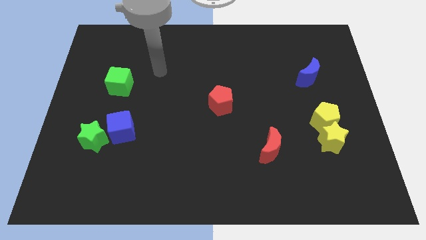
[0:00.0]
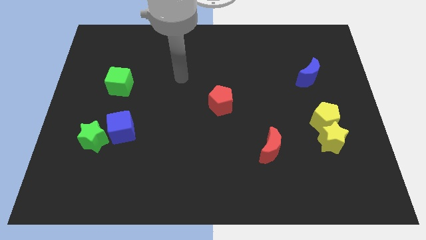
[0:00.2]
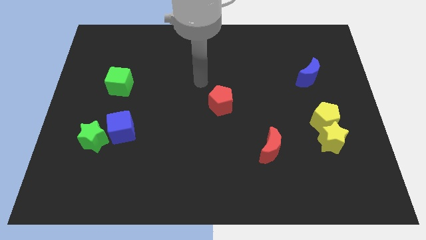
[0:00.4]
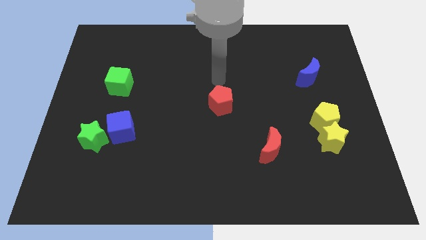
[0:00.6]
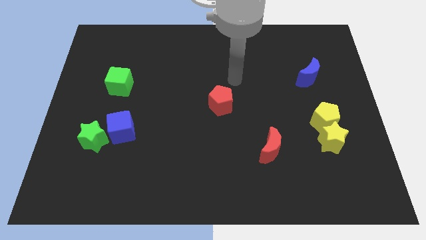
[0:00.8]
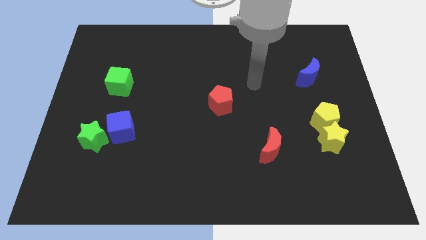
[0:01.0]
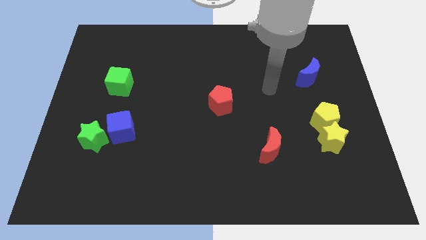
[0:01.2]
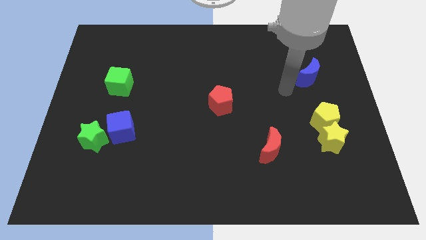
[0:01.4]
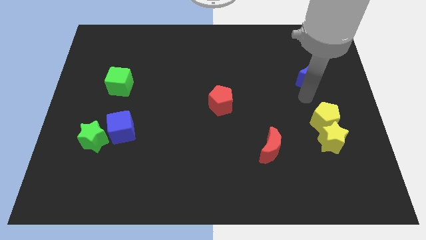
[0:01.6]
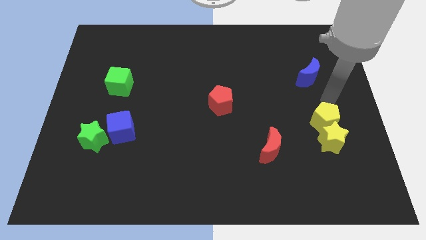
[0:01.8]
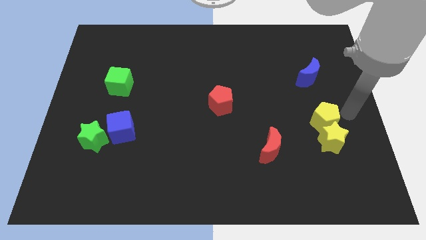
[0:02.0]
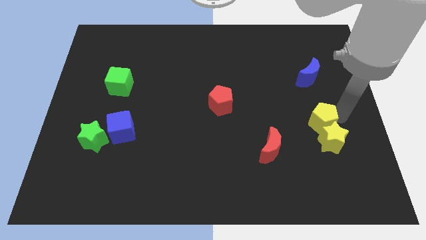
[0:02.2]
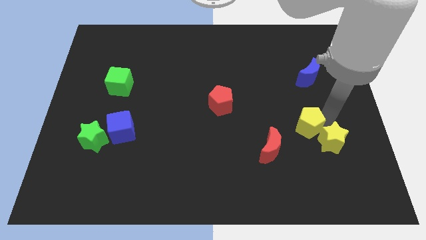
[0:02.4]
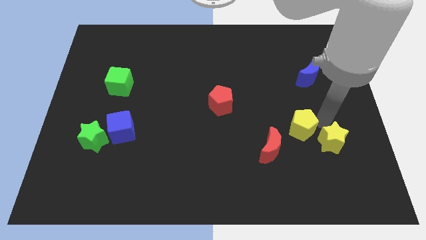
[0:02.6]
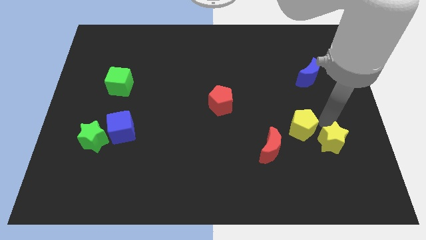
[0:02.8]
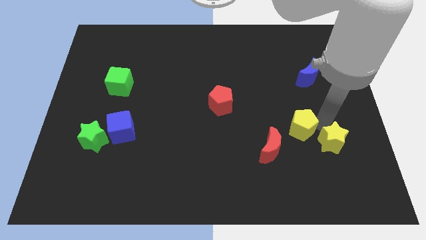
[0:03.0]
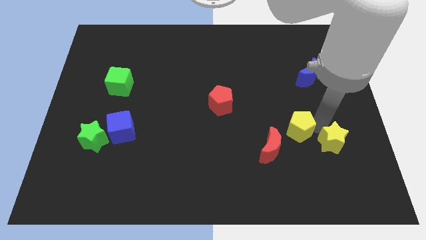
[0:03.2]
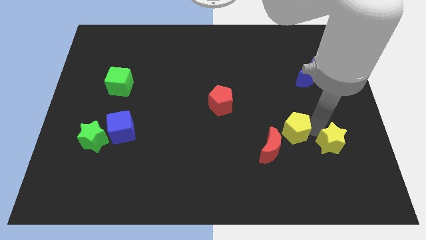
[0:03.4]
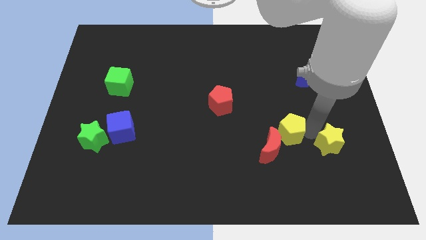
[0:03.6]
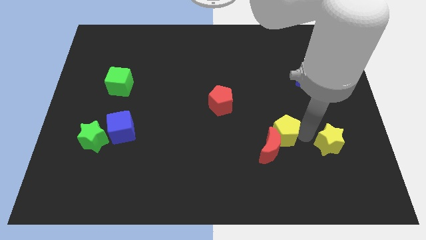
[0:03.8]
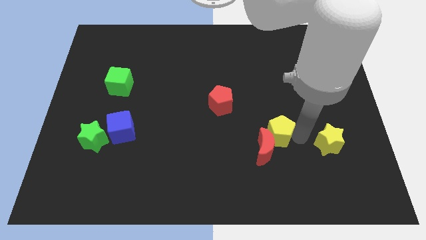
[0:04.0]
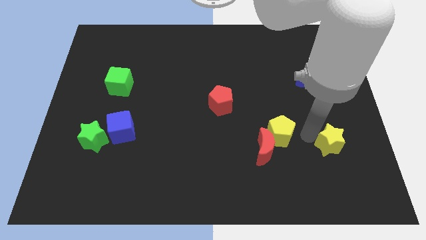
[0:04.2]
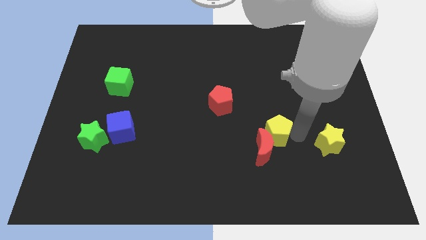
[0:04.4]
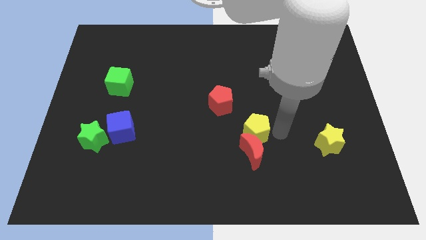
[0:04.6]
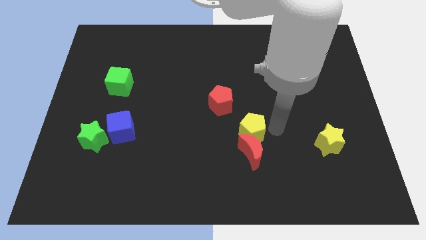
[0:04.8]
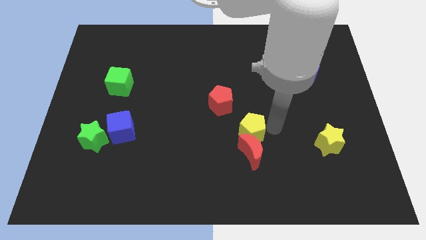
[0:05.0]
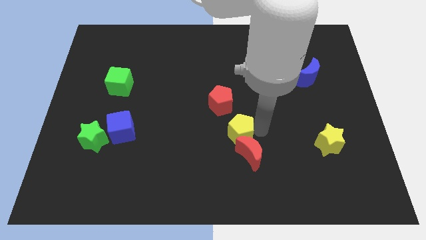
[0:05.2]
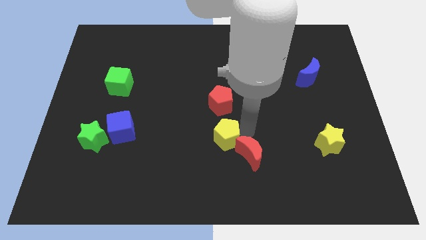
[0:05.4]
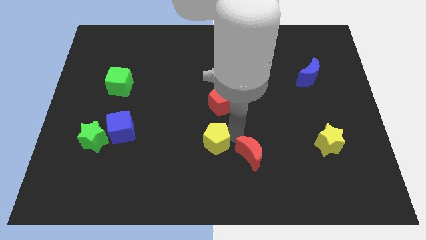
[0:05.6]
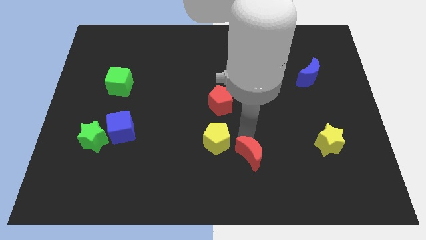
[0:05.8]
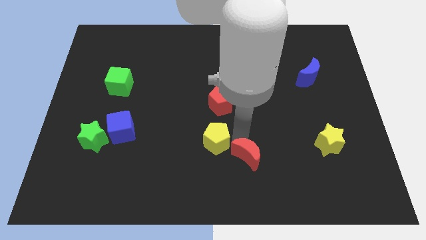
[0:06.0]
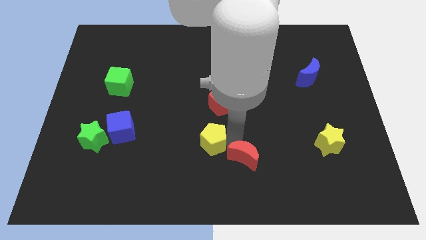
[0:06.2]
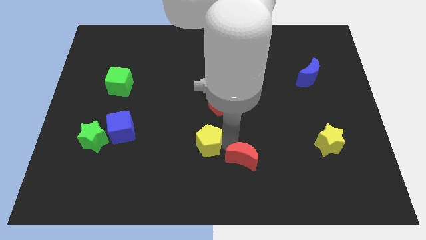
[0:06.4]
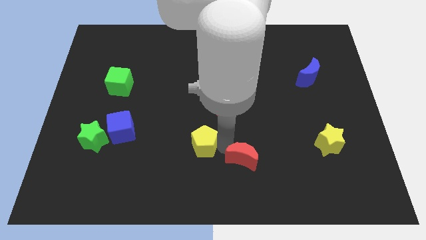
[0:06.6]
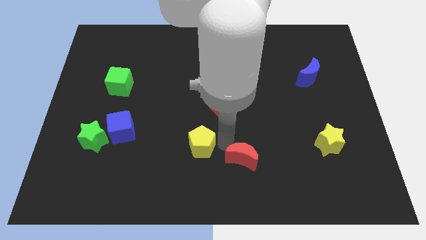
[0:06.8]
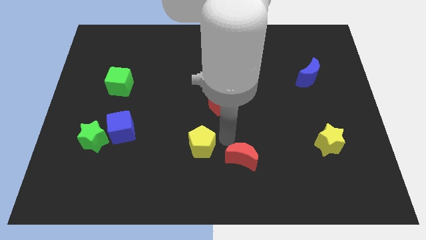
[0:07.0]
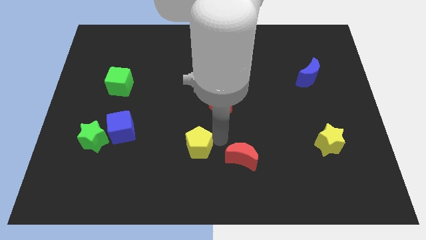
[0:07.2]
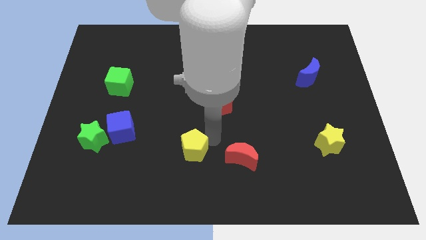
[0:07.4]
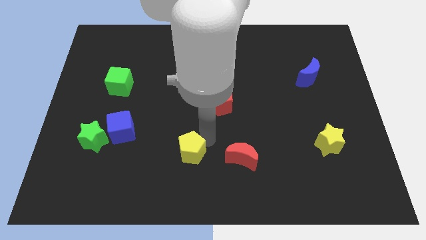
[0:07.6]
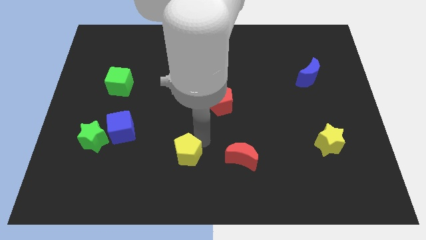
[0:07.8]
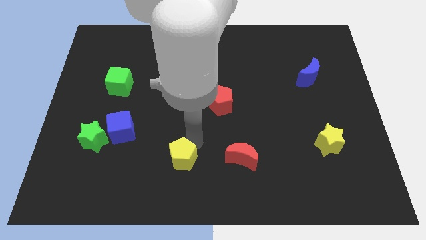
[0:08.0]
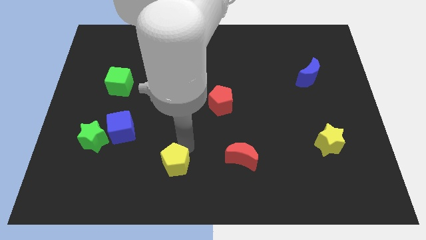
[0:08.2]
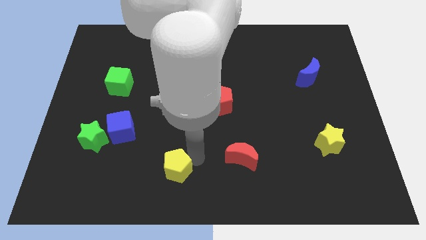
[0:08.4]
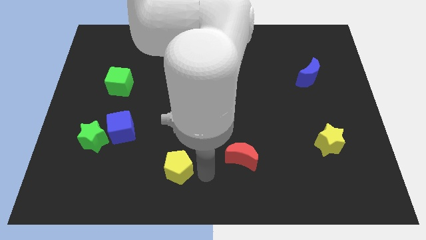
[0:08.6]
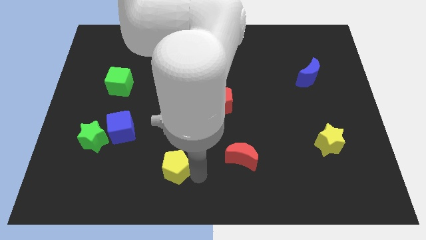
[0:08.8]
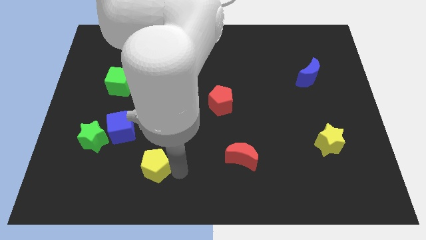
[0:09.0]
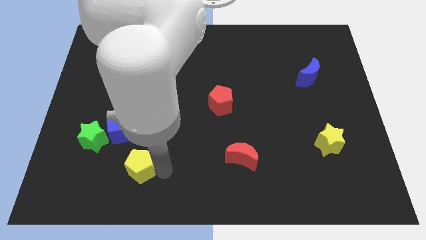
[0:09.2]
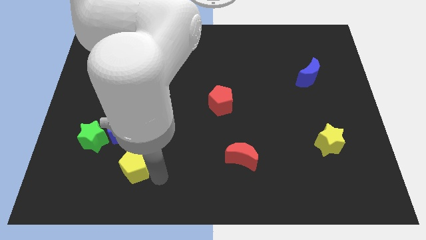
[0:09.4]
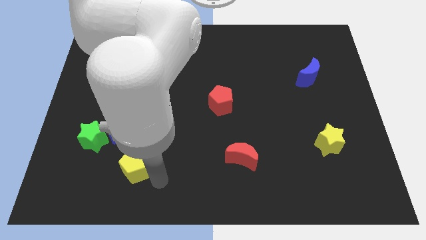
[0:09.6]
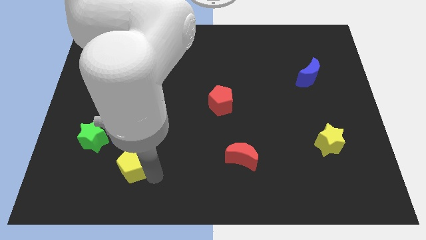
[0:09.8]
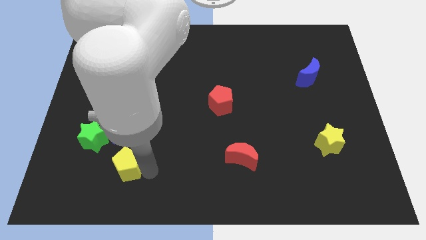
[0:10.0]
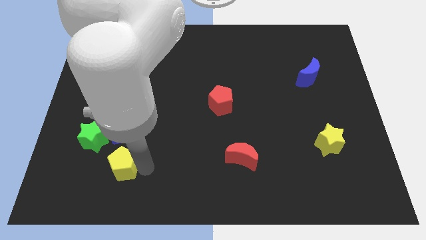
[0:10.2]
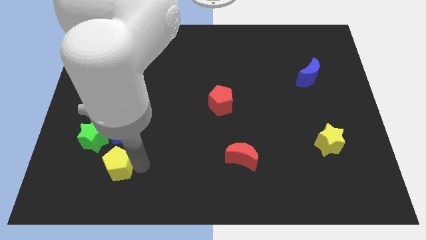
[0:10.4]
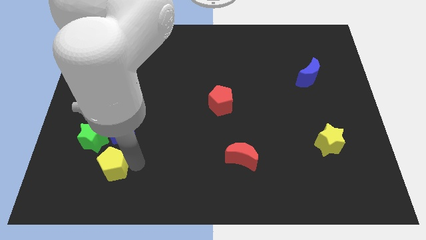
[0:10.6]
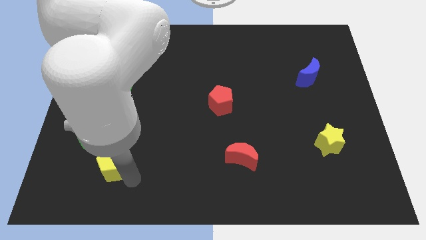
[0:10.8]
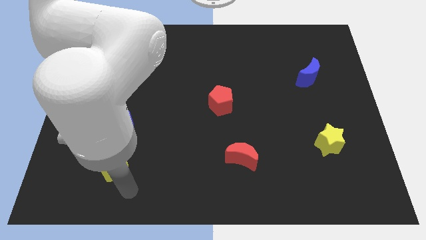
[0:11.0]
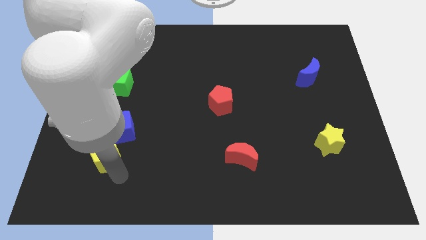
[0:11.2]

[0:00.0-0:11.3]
push the yellow pentagon close to the green star

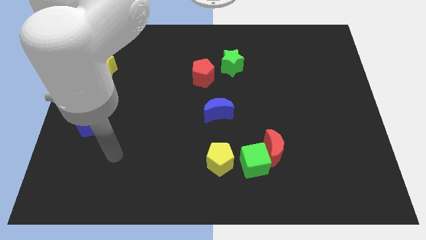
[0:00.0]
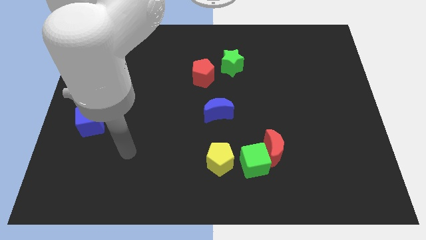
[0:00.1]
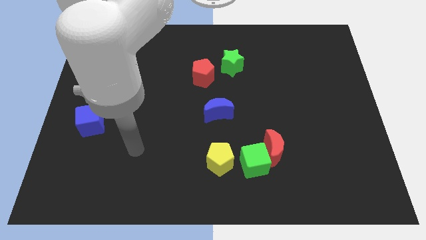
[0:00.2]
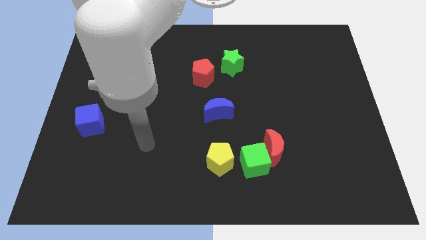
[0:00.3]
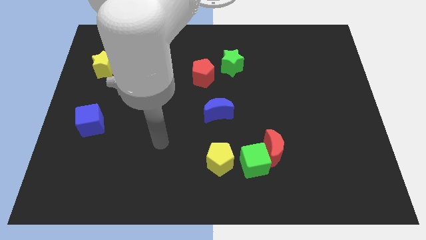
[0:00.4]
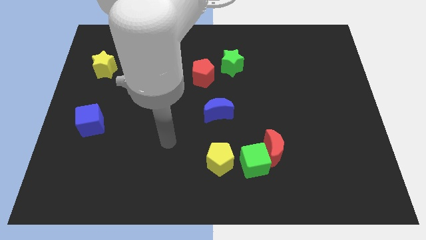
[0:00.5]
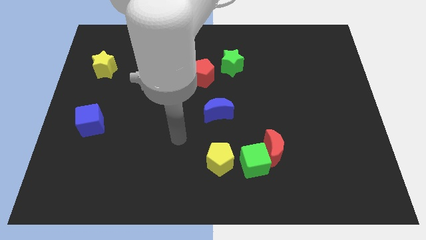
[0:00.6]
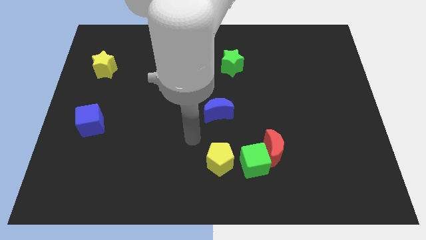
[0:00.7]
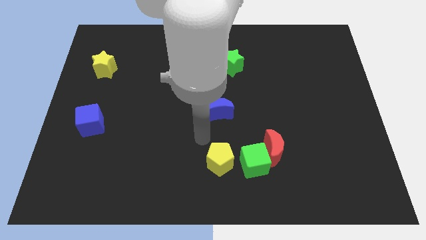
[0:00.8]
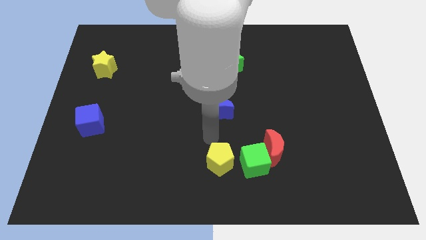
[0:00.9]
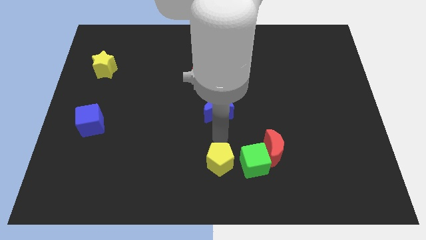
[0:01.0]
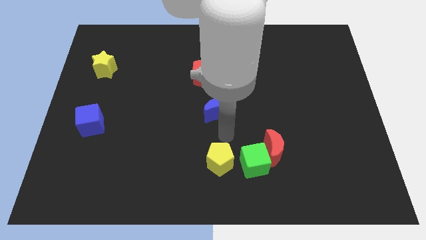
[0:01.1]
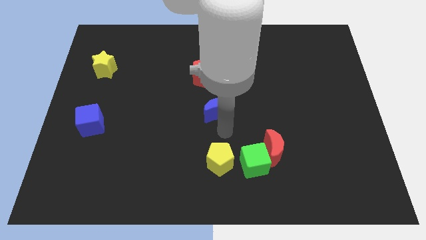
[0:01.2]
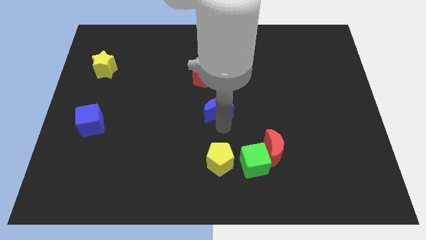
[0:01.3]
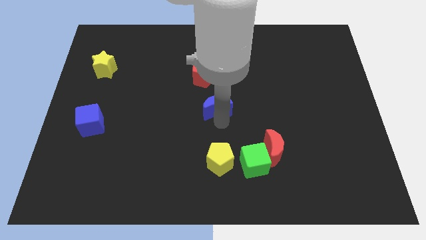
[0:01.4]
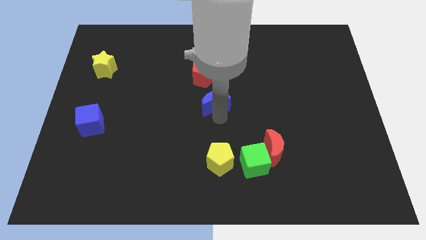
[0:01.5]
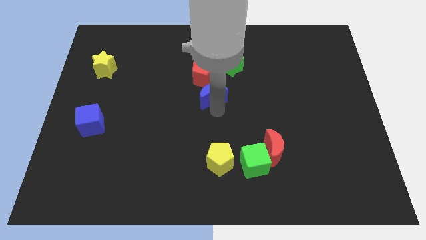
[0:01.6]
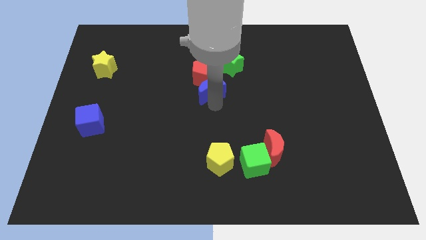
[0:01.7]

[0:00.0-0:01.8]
put the blue moon close to the red pentagon
